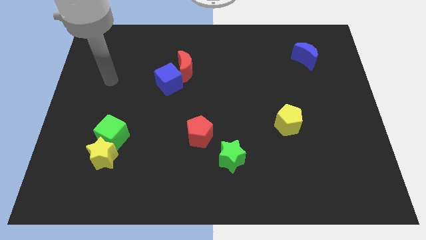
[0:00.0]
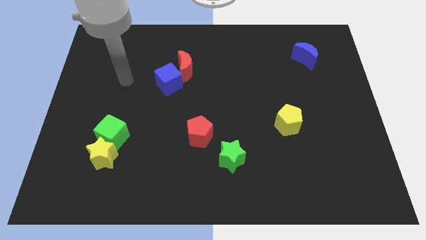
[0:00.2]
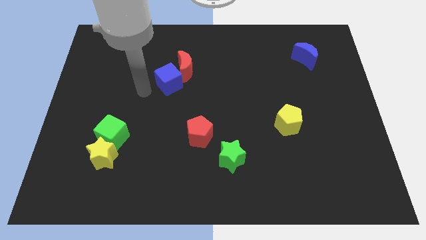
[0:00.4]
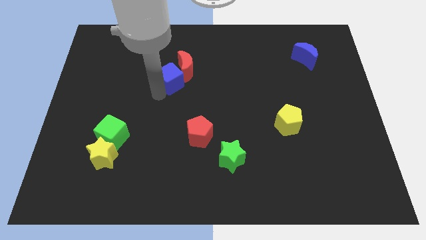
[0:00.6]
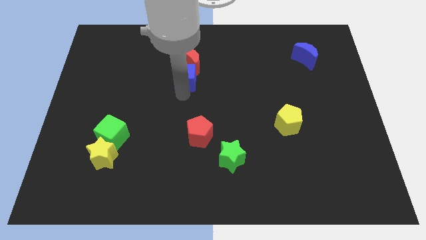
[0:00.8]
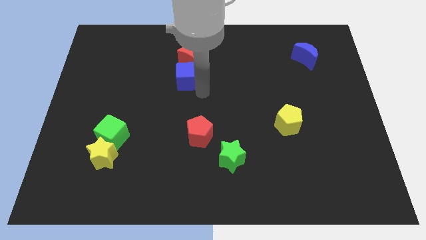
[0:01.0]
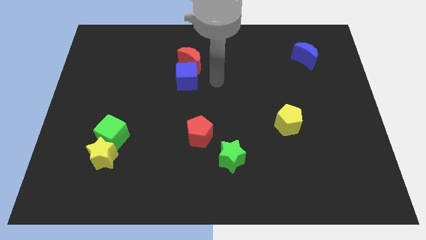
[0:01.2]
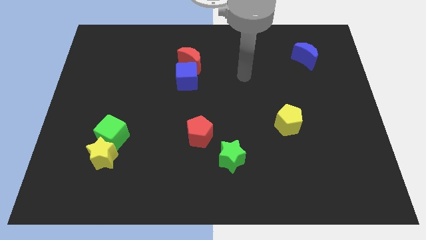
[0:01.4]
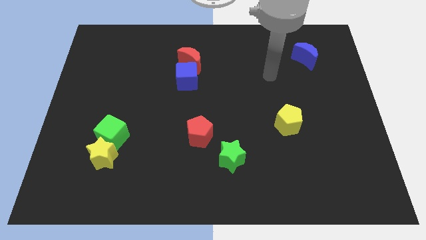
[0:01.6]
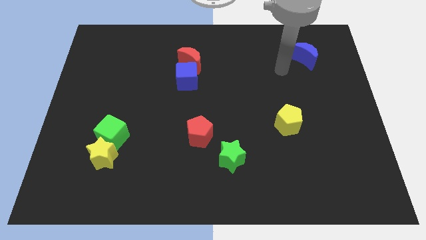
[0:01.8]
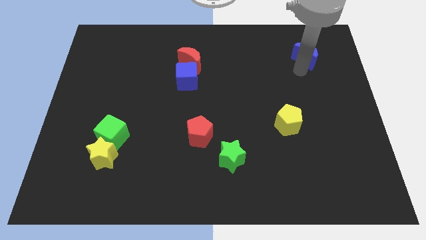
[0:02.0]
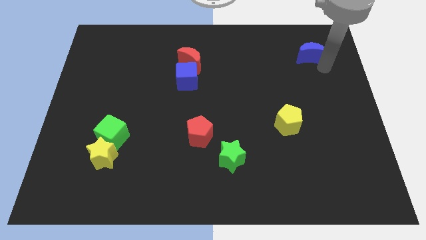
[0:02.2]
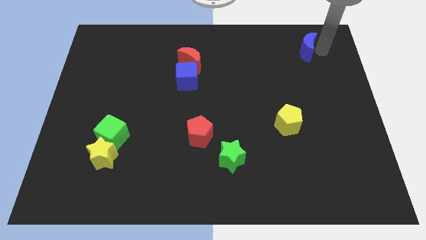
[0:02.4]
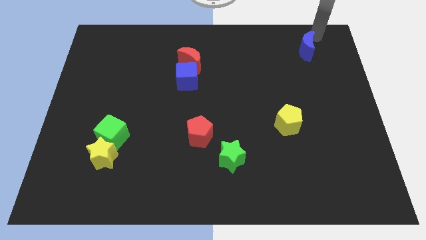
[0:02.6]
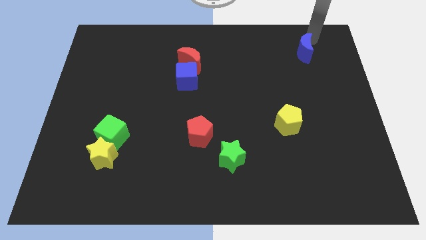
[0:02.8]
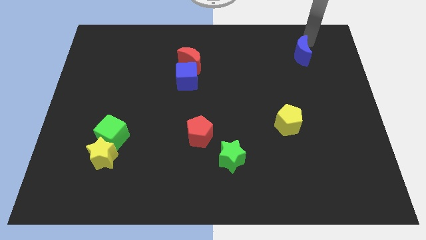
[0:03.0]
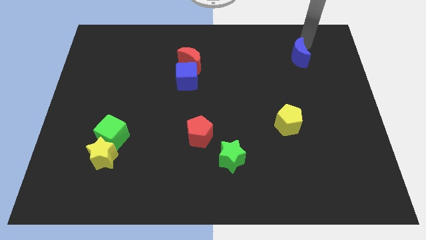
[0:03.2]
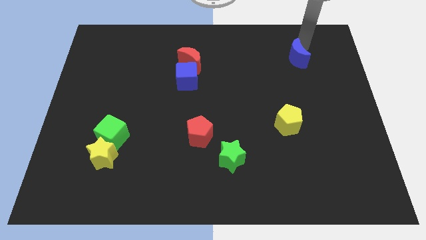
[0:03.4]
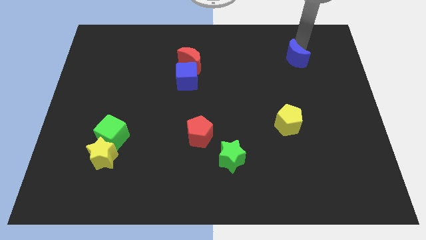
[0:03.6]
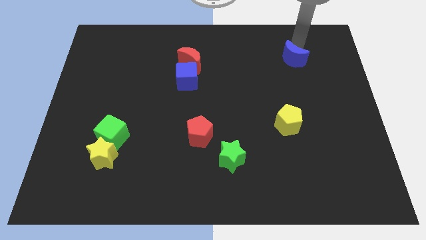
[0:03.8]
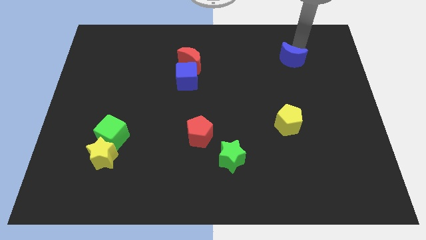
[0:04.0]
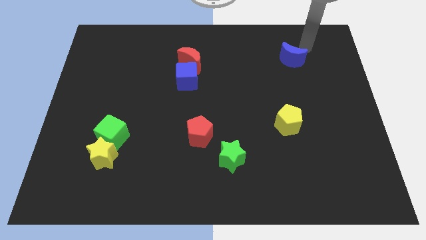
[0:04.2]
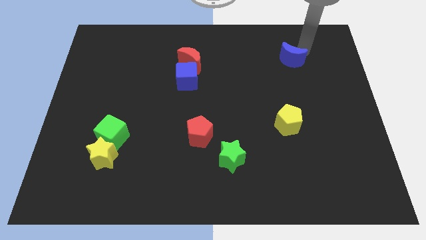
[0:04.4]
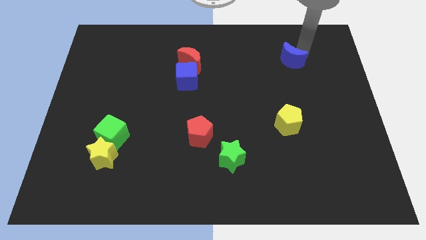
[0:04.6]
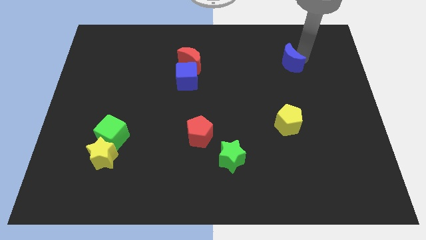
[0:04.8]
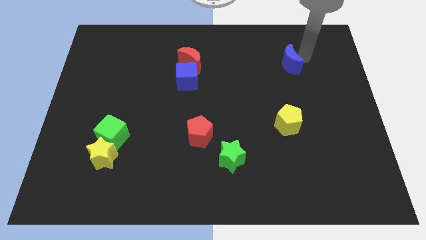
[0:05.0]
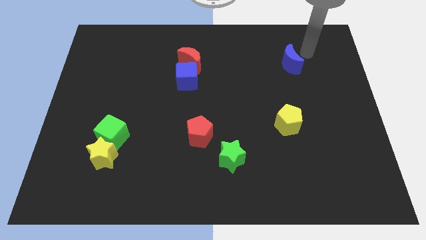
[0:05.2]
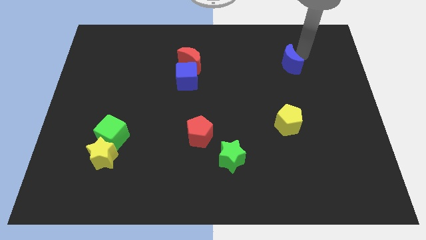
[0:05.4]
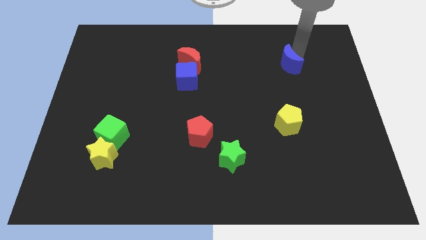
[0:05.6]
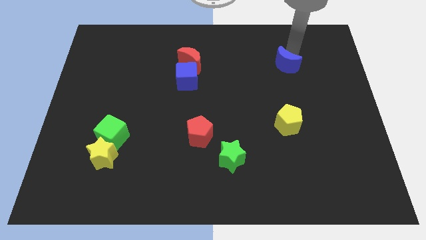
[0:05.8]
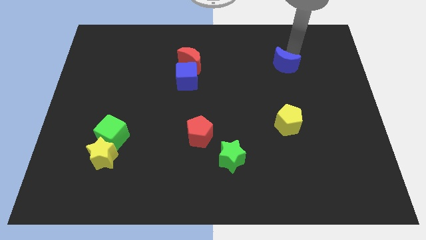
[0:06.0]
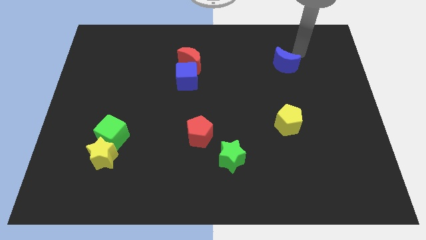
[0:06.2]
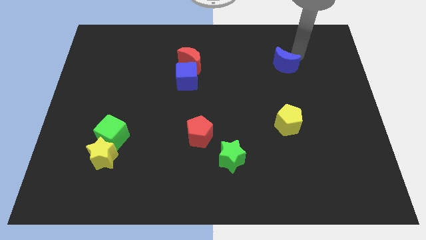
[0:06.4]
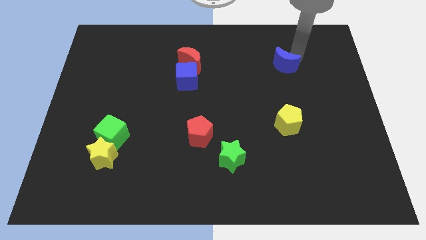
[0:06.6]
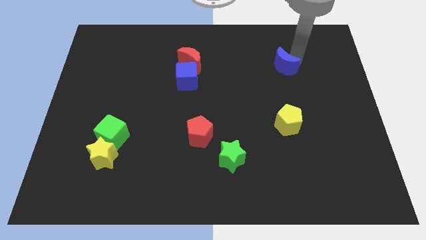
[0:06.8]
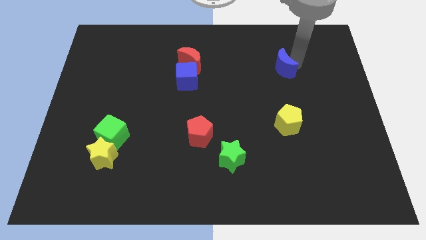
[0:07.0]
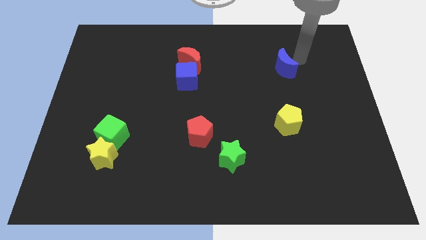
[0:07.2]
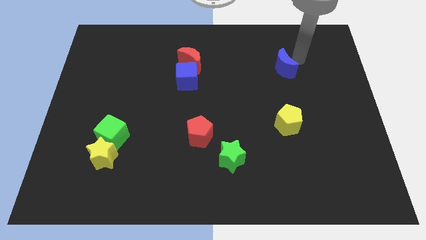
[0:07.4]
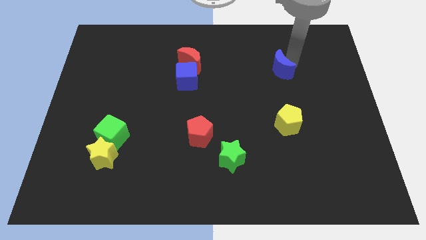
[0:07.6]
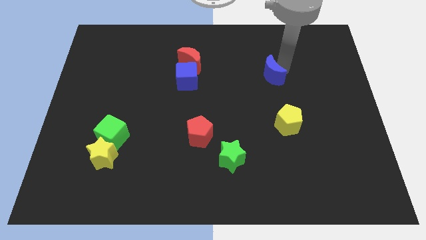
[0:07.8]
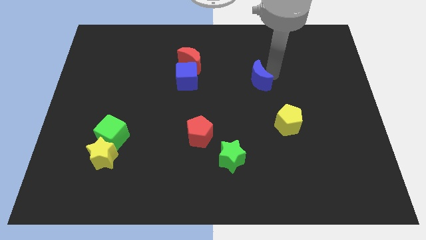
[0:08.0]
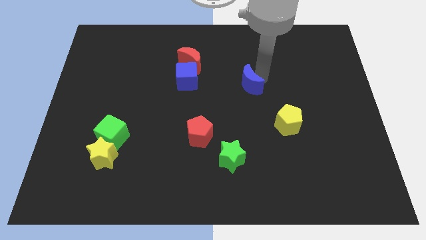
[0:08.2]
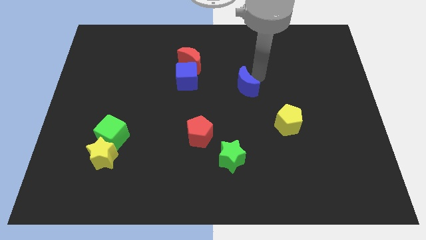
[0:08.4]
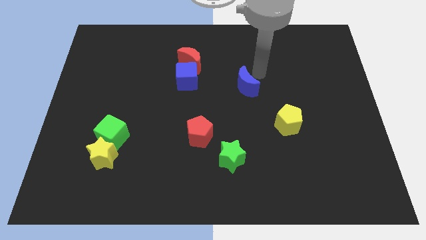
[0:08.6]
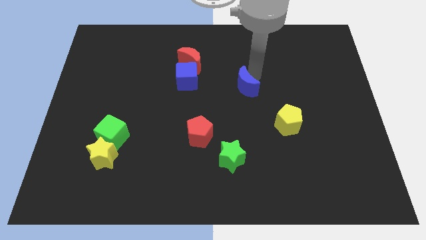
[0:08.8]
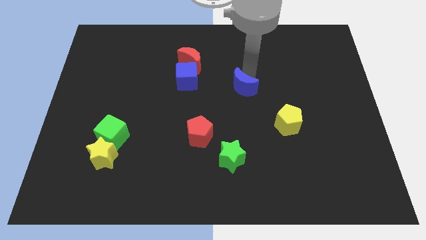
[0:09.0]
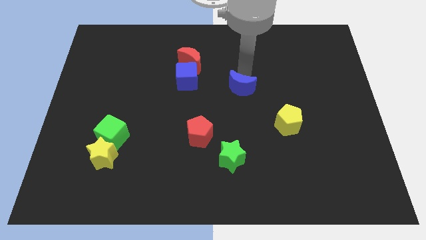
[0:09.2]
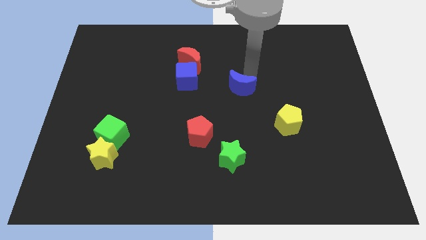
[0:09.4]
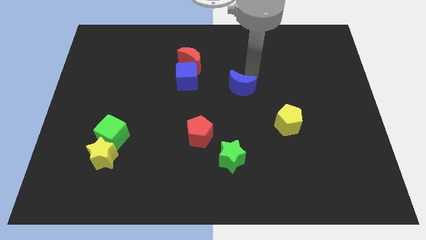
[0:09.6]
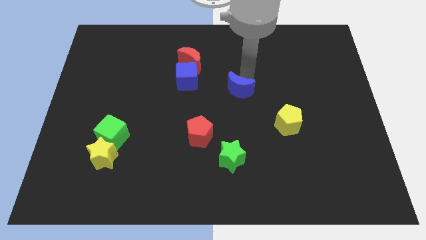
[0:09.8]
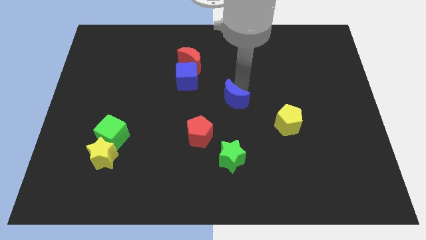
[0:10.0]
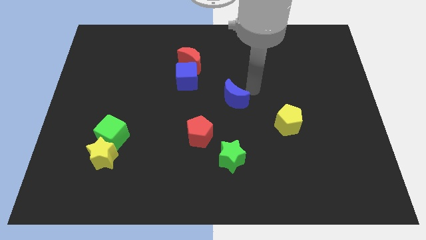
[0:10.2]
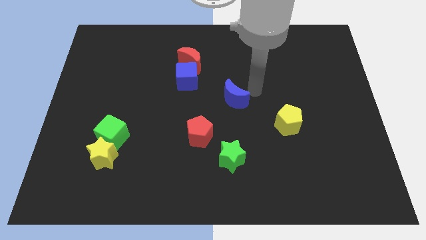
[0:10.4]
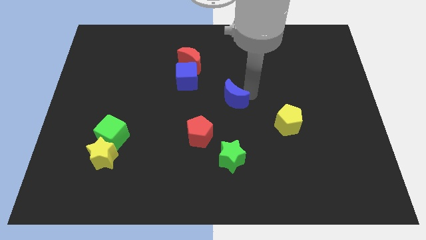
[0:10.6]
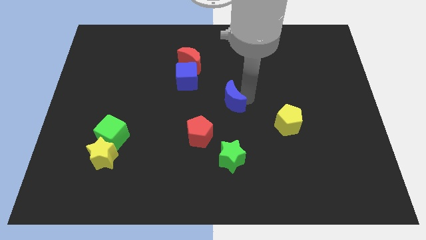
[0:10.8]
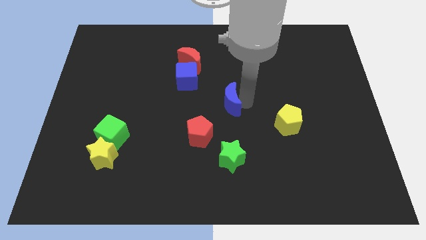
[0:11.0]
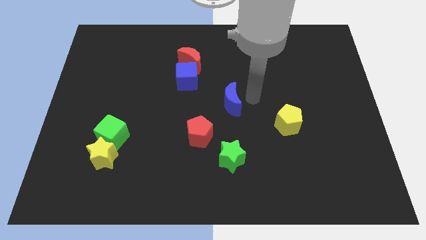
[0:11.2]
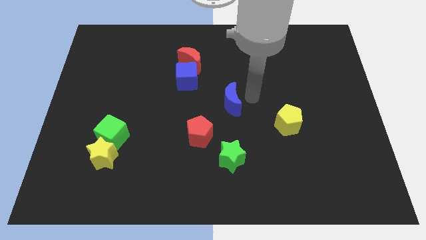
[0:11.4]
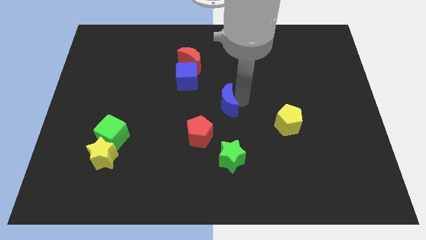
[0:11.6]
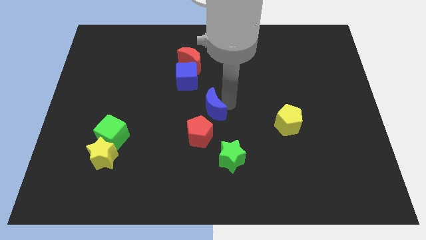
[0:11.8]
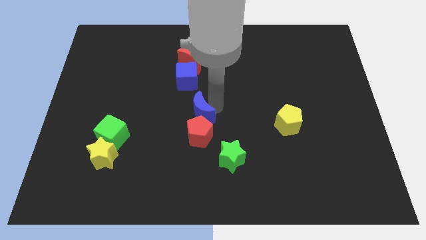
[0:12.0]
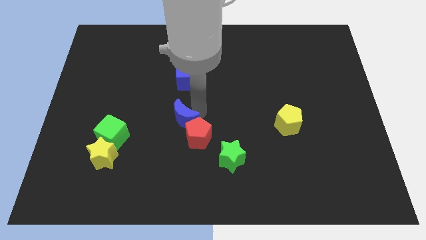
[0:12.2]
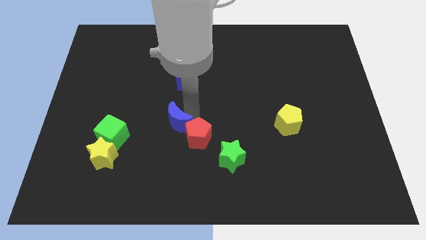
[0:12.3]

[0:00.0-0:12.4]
push the blue moon right of the green cube

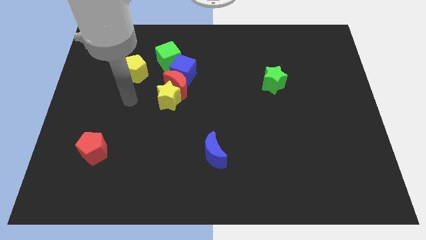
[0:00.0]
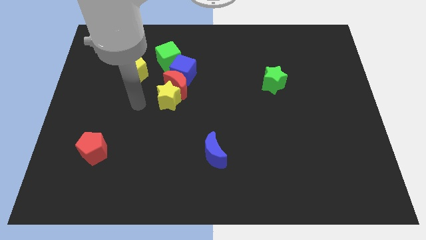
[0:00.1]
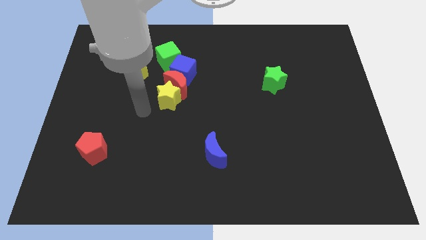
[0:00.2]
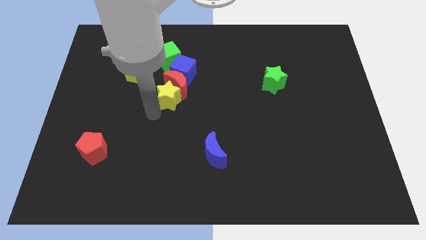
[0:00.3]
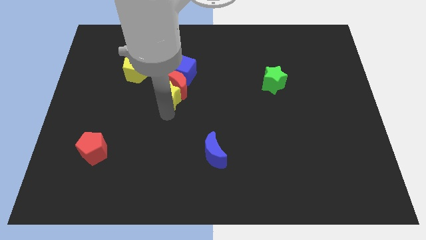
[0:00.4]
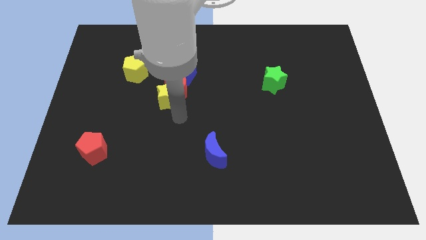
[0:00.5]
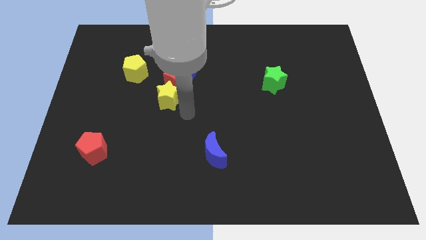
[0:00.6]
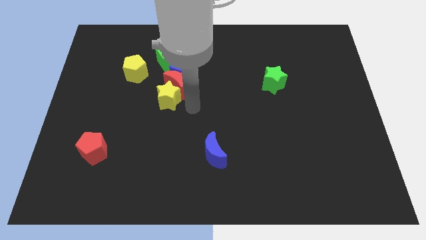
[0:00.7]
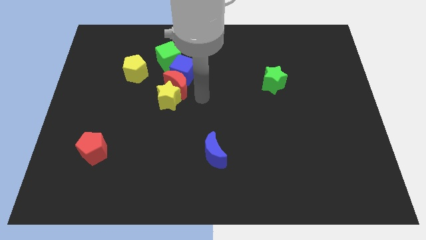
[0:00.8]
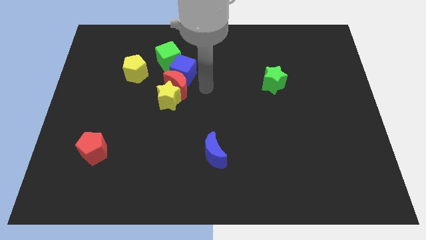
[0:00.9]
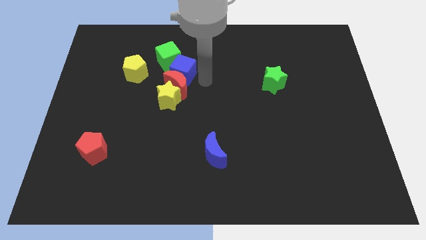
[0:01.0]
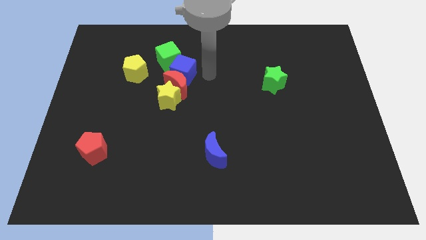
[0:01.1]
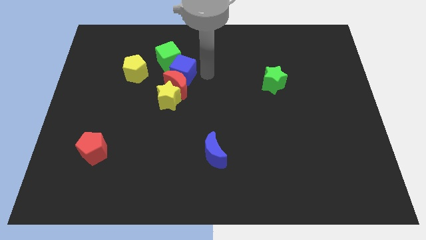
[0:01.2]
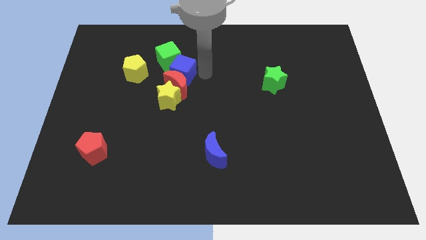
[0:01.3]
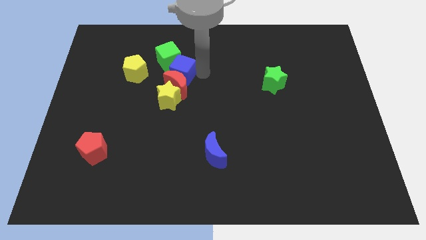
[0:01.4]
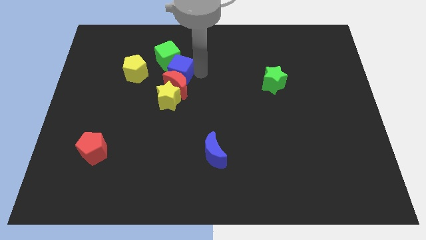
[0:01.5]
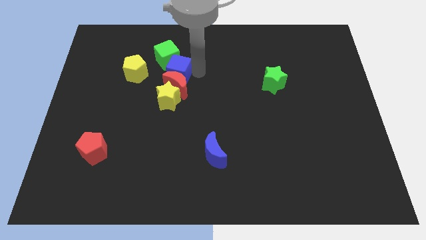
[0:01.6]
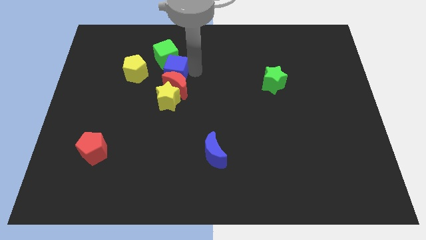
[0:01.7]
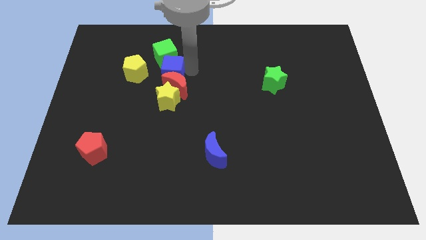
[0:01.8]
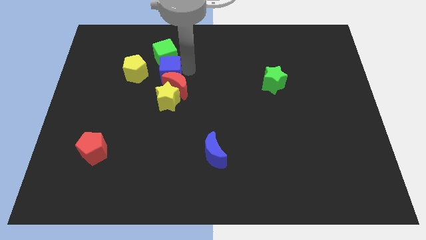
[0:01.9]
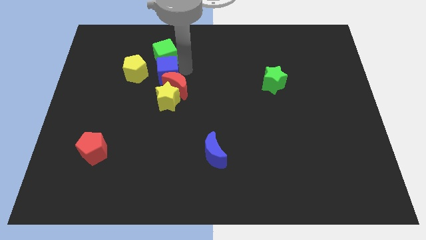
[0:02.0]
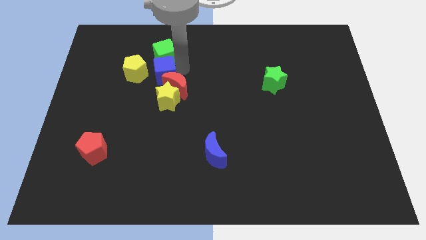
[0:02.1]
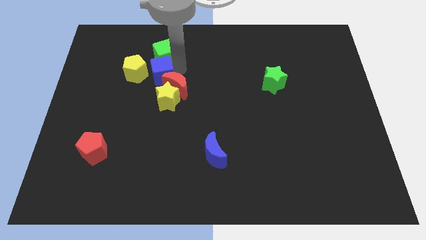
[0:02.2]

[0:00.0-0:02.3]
put the blue cube diagonally up and to the left of the yellow star
